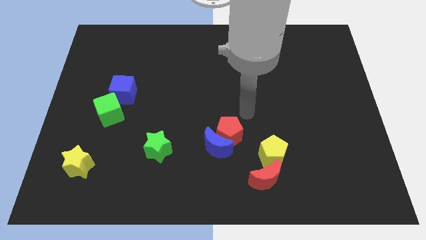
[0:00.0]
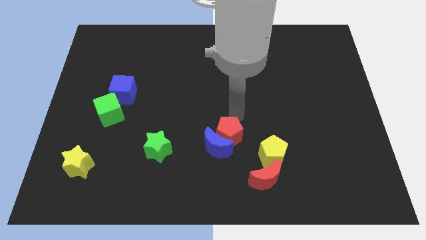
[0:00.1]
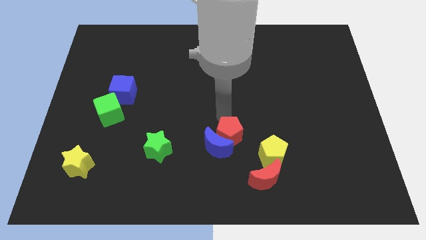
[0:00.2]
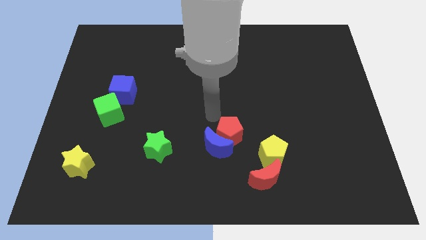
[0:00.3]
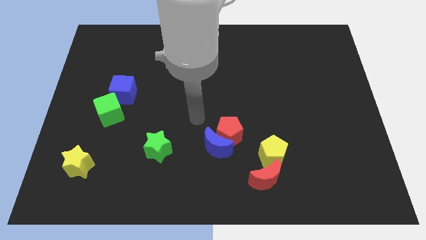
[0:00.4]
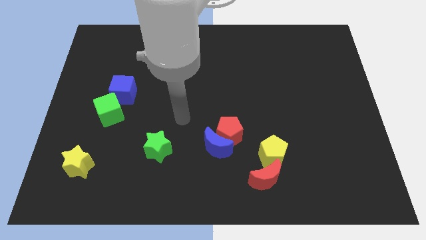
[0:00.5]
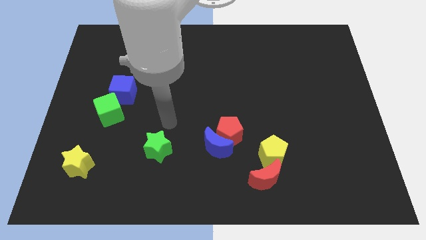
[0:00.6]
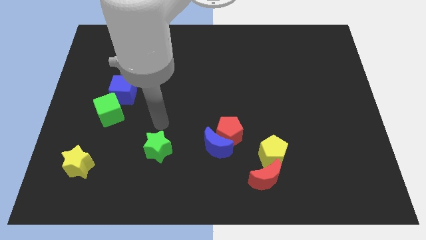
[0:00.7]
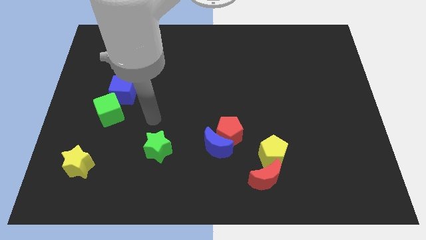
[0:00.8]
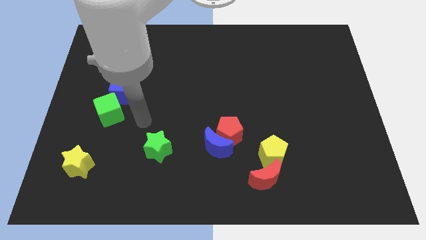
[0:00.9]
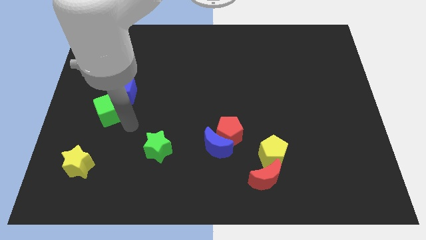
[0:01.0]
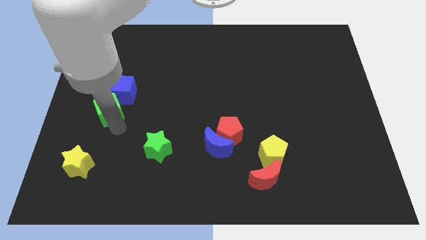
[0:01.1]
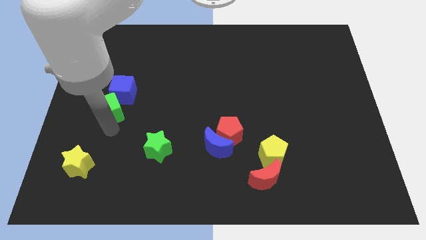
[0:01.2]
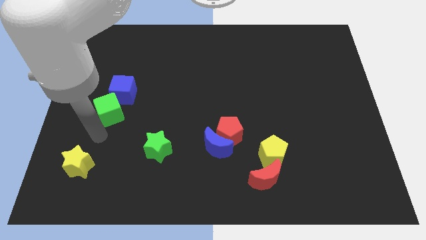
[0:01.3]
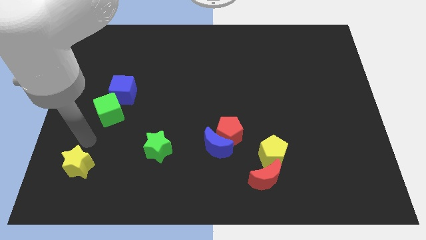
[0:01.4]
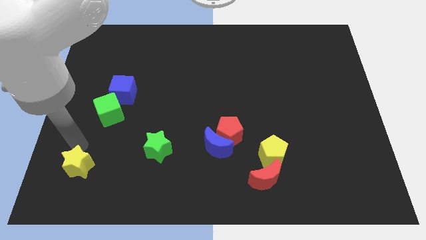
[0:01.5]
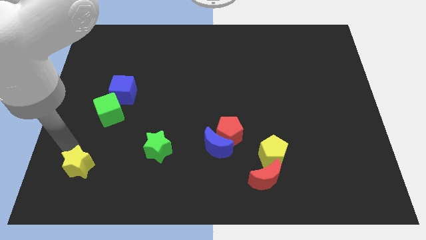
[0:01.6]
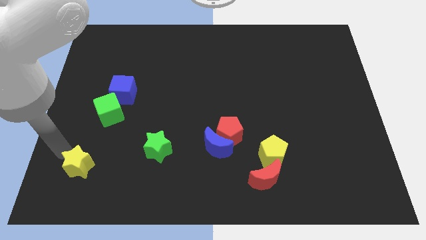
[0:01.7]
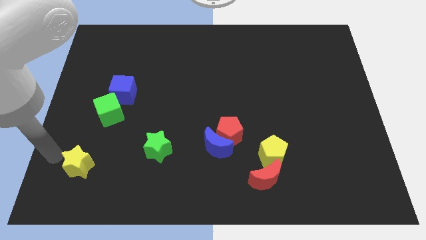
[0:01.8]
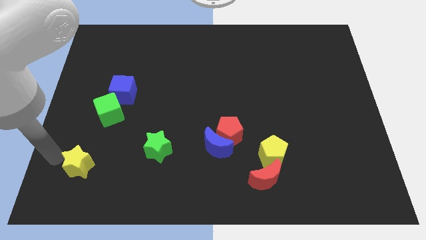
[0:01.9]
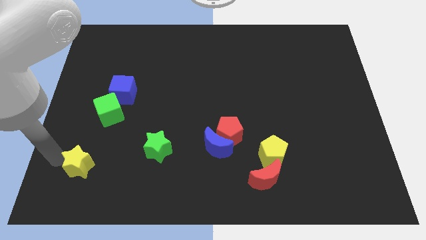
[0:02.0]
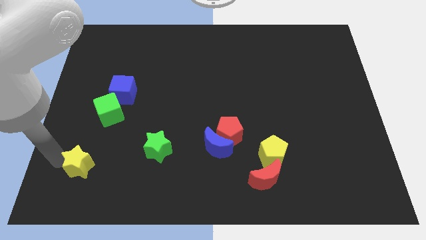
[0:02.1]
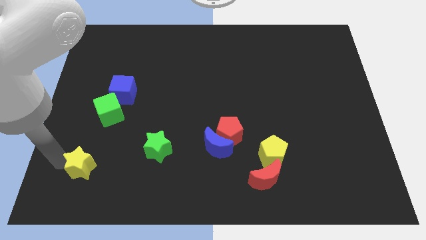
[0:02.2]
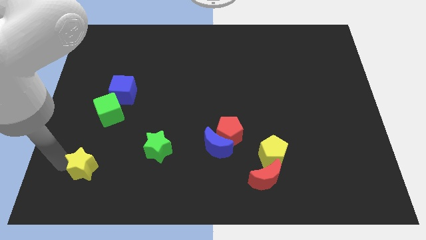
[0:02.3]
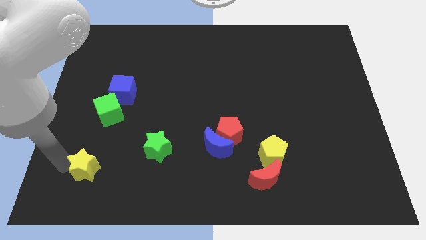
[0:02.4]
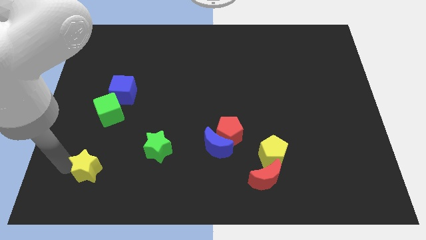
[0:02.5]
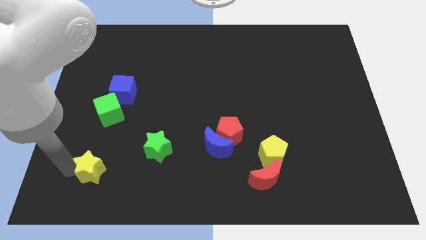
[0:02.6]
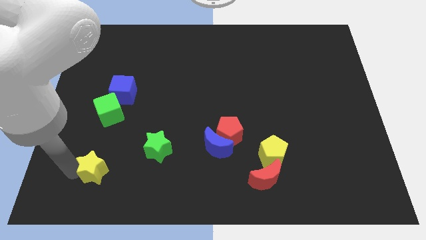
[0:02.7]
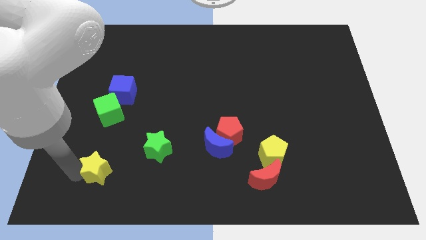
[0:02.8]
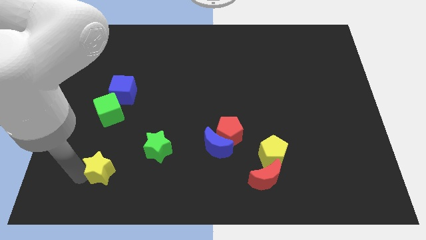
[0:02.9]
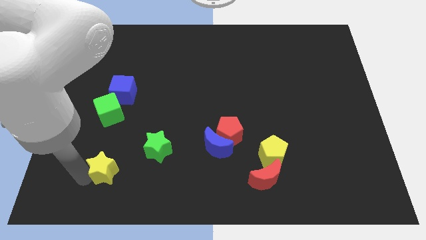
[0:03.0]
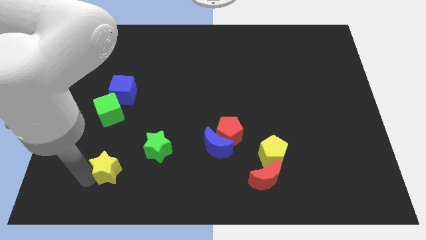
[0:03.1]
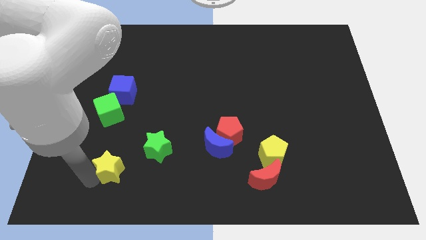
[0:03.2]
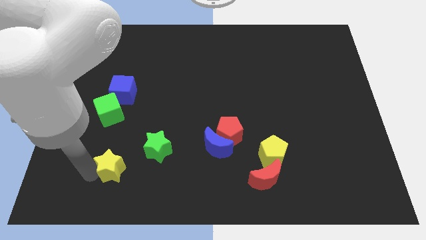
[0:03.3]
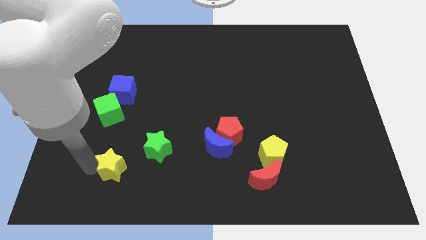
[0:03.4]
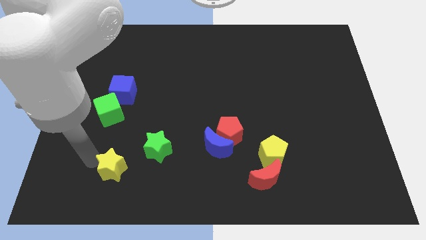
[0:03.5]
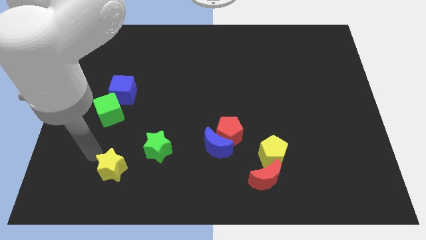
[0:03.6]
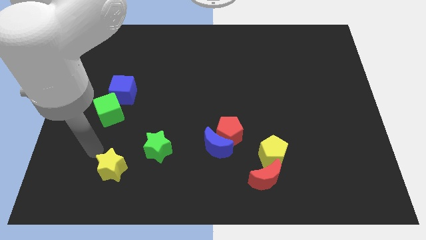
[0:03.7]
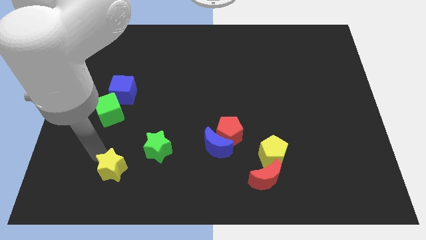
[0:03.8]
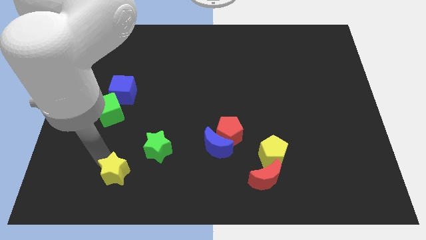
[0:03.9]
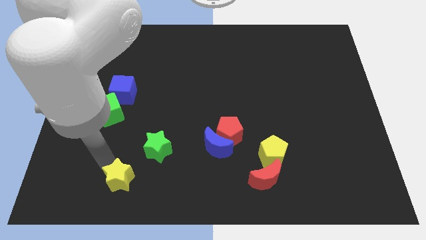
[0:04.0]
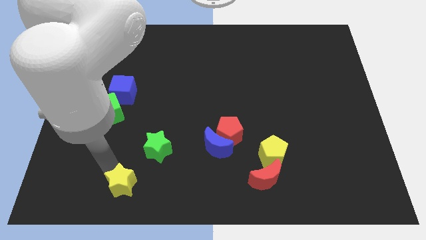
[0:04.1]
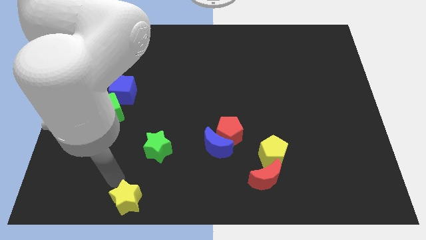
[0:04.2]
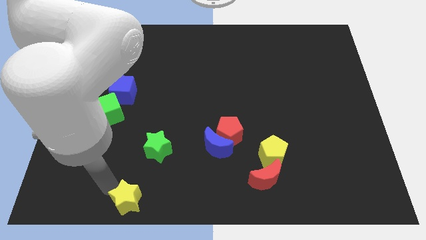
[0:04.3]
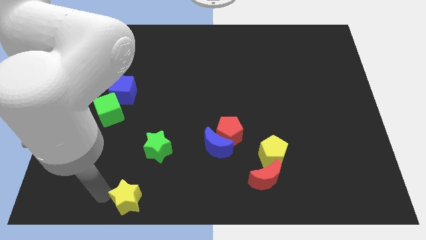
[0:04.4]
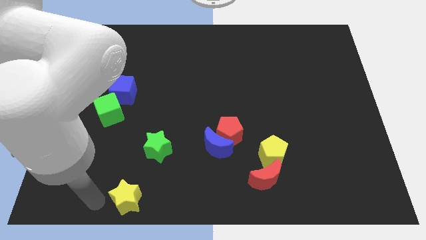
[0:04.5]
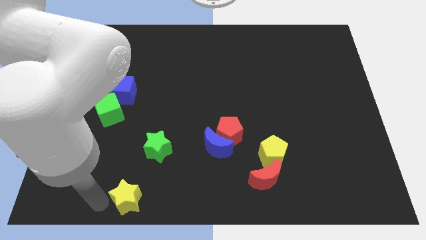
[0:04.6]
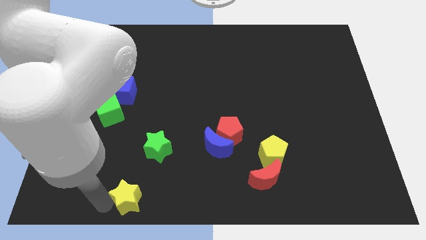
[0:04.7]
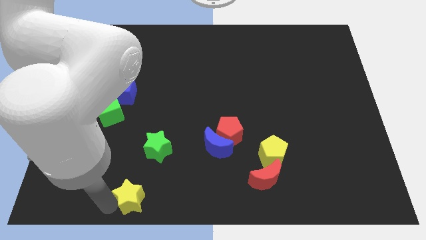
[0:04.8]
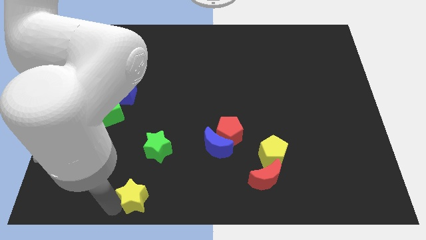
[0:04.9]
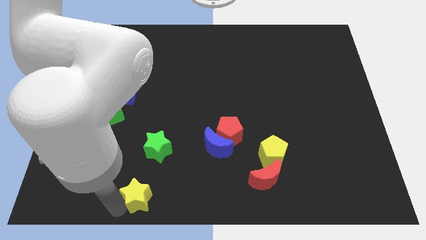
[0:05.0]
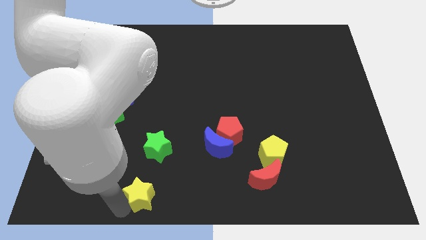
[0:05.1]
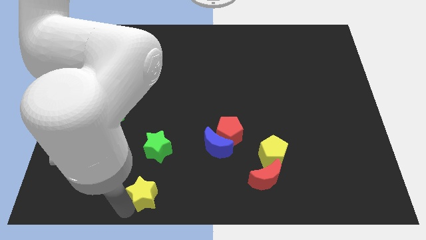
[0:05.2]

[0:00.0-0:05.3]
push the yellow star to the bottom

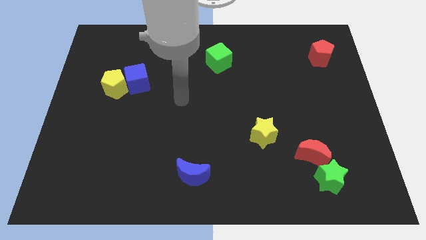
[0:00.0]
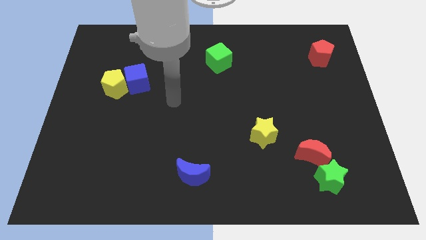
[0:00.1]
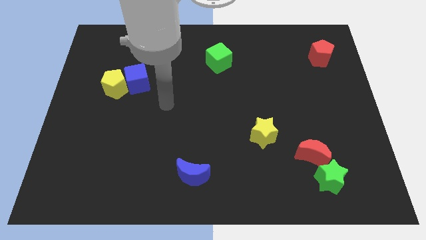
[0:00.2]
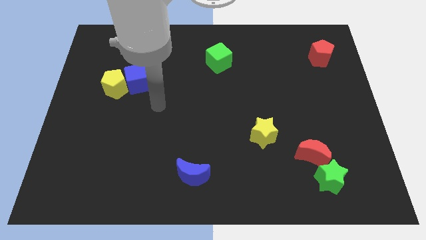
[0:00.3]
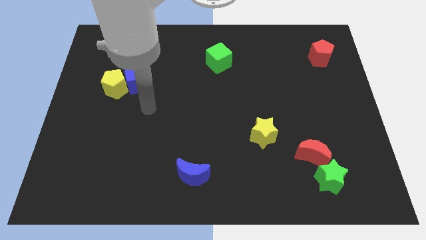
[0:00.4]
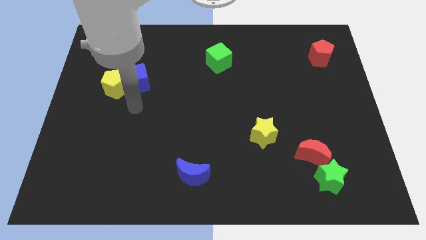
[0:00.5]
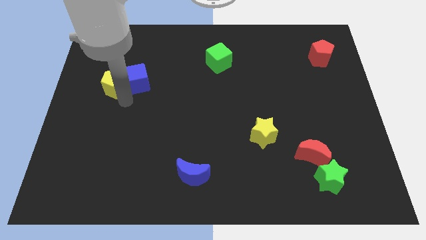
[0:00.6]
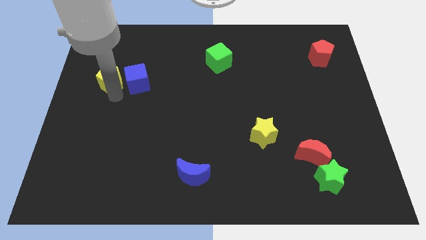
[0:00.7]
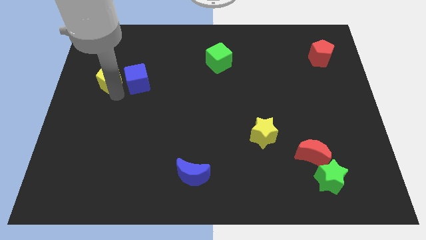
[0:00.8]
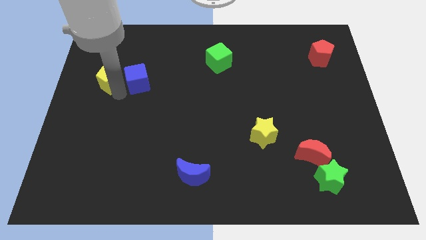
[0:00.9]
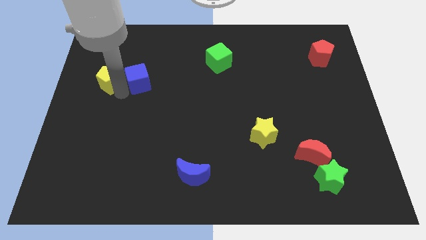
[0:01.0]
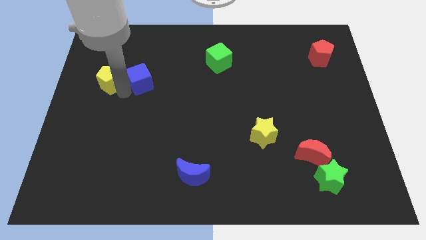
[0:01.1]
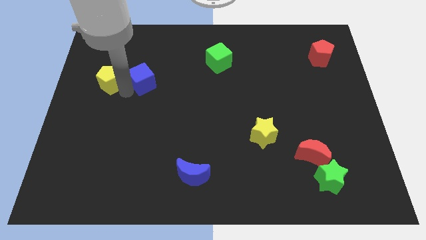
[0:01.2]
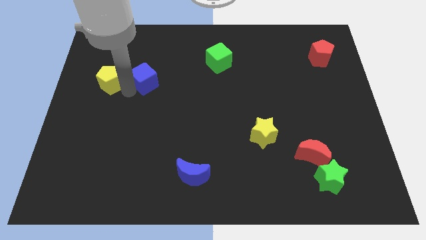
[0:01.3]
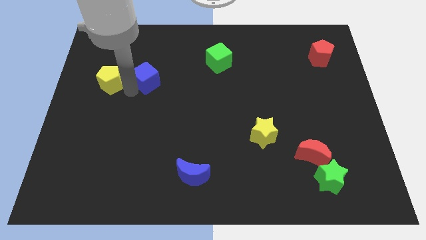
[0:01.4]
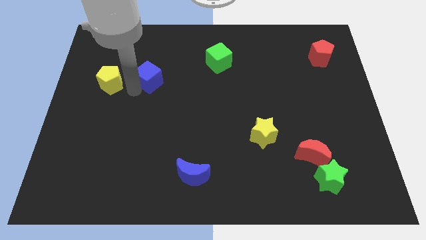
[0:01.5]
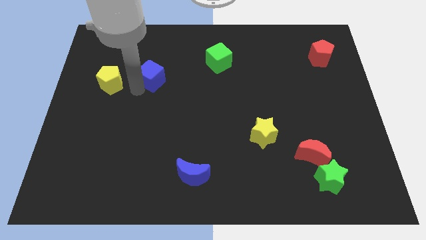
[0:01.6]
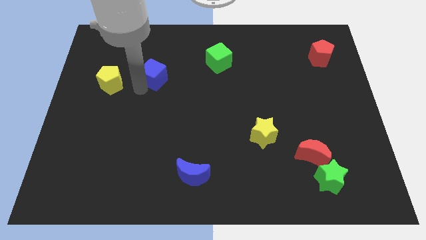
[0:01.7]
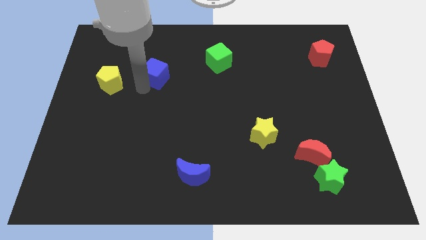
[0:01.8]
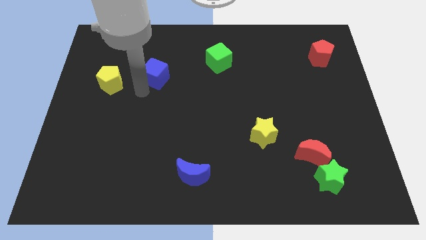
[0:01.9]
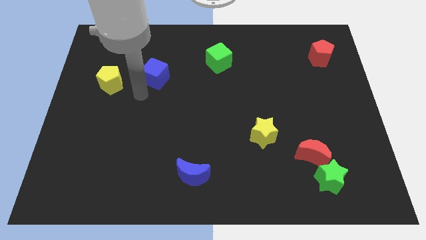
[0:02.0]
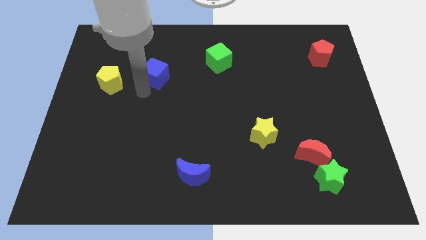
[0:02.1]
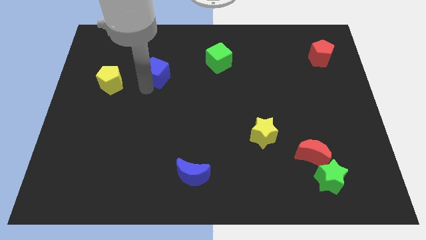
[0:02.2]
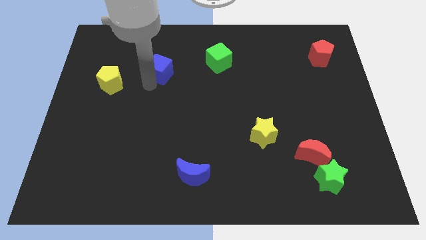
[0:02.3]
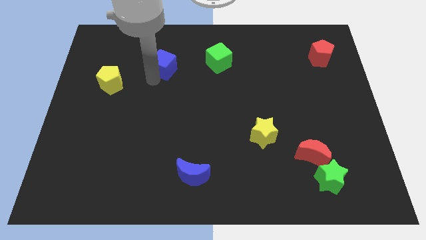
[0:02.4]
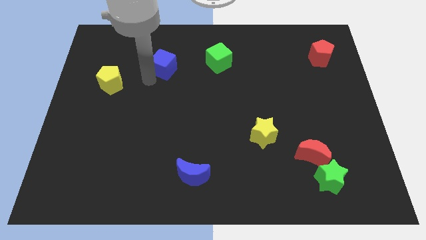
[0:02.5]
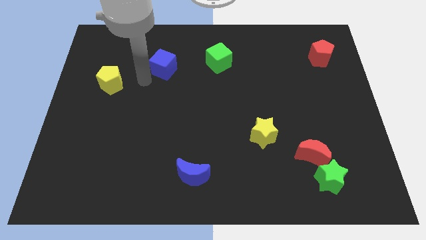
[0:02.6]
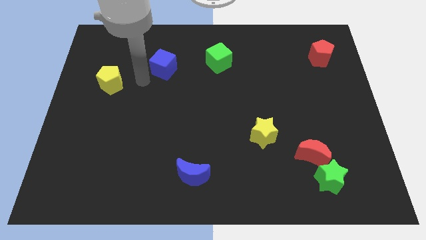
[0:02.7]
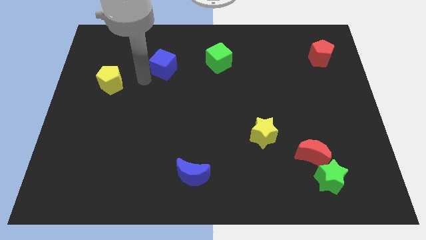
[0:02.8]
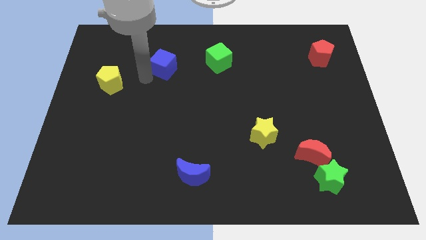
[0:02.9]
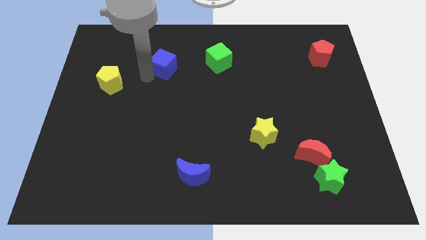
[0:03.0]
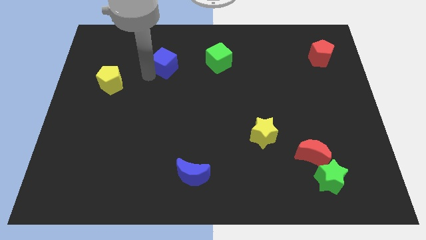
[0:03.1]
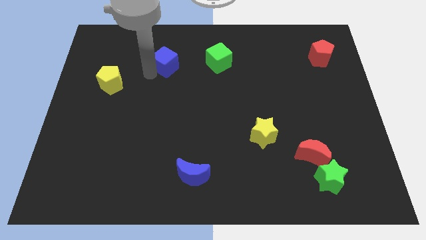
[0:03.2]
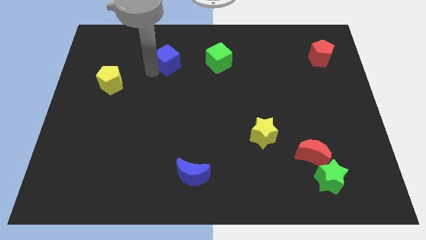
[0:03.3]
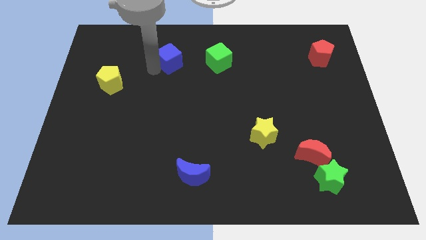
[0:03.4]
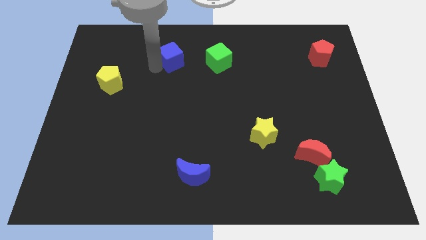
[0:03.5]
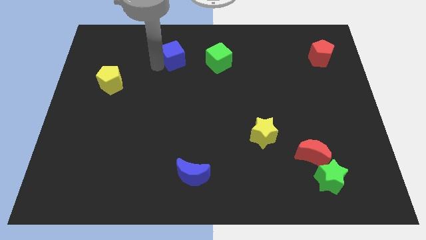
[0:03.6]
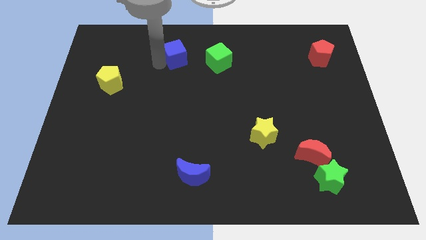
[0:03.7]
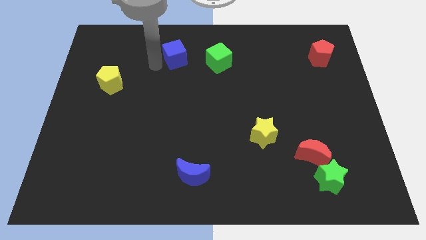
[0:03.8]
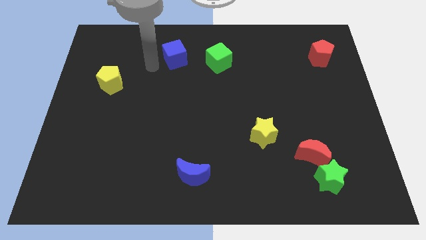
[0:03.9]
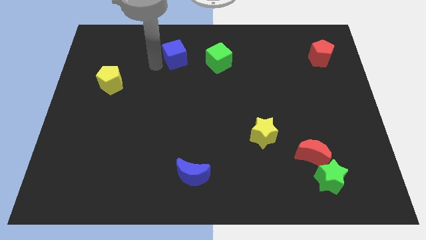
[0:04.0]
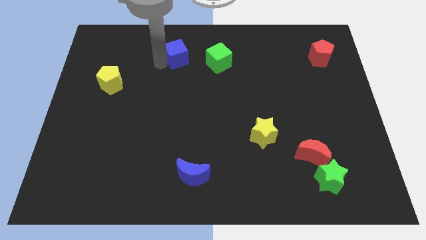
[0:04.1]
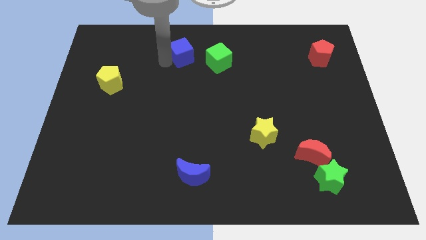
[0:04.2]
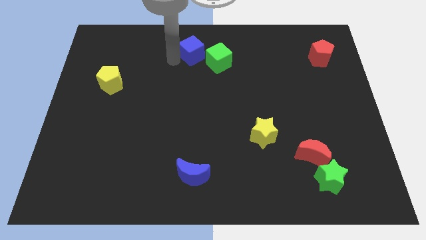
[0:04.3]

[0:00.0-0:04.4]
move the blue cube to the top
